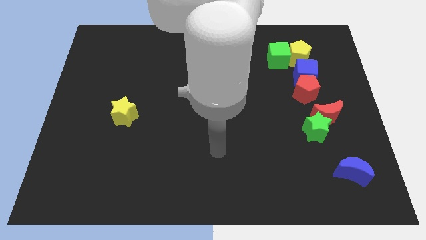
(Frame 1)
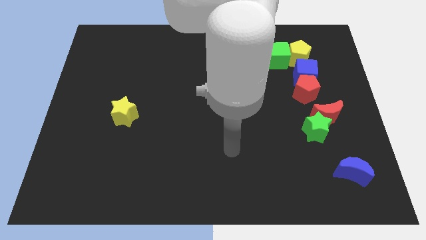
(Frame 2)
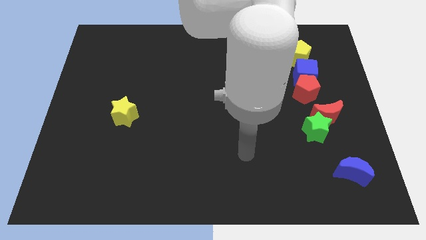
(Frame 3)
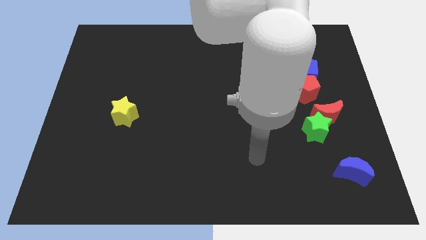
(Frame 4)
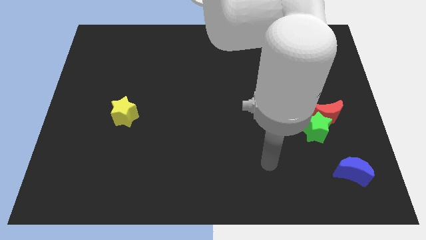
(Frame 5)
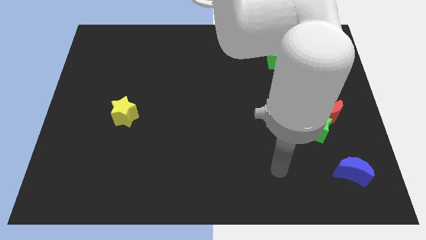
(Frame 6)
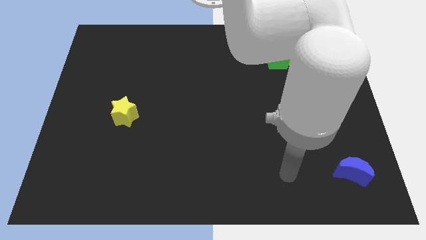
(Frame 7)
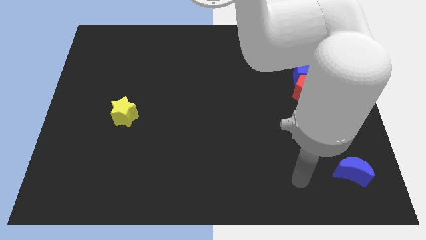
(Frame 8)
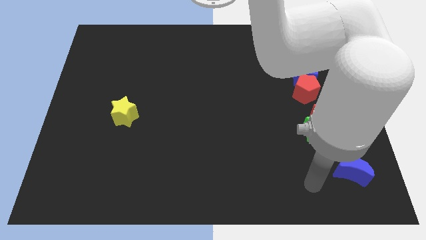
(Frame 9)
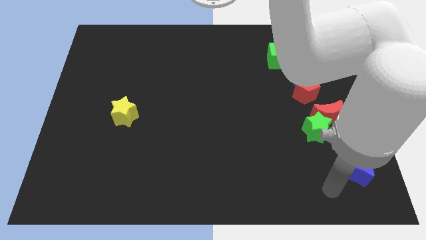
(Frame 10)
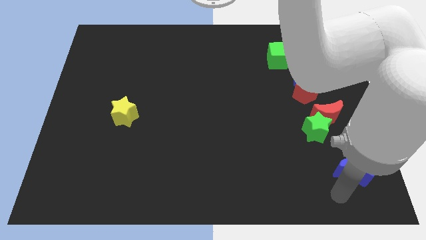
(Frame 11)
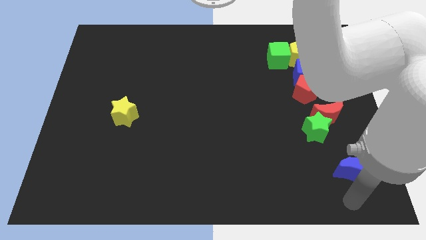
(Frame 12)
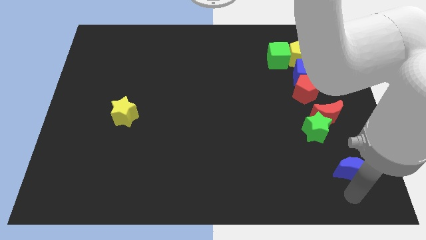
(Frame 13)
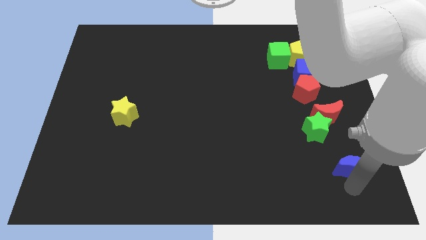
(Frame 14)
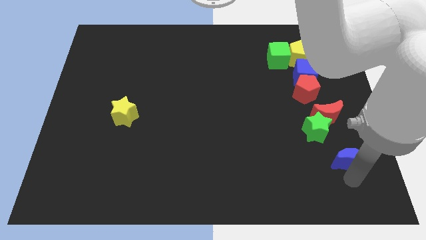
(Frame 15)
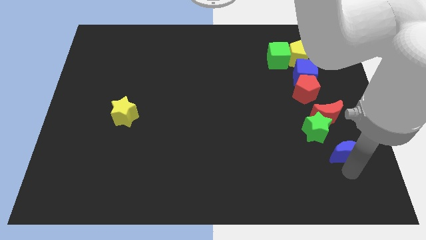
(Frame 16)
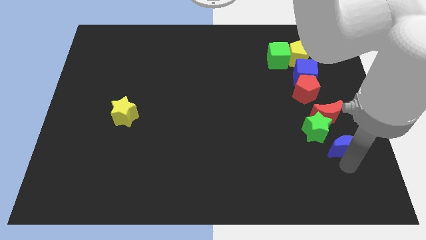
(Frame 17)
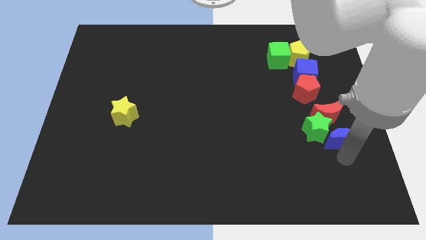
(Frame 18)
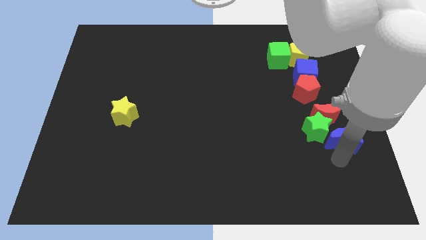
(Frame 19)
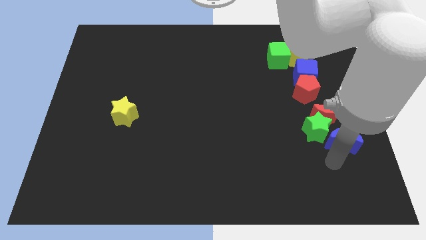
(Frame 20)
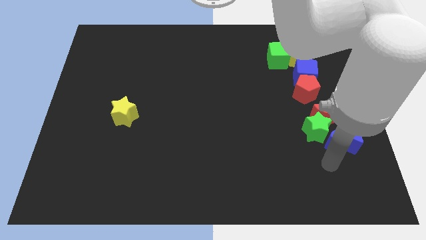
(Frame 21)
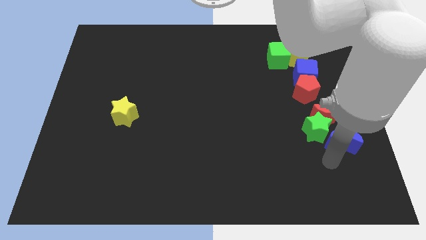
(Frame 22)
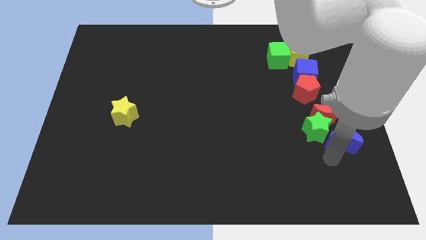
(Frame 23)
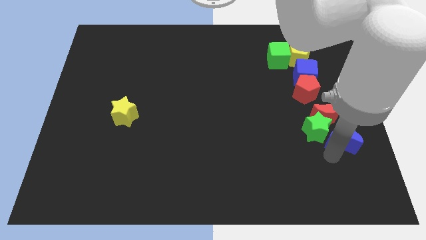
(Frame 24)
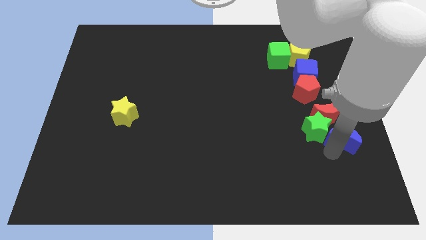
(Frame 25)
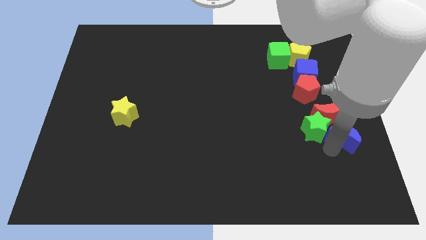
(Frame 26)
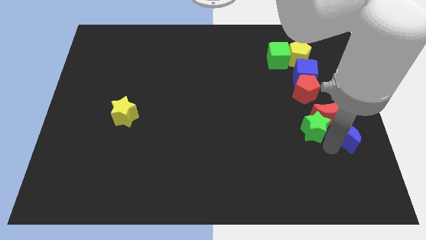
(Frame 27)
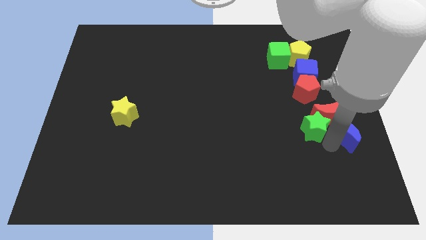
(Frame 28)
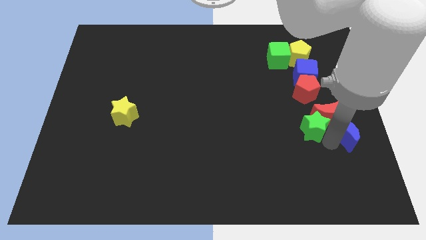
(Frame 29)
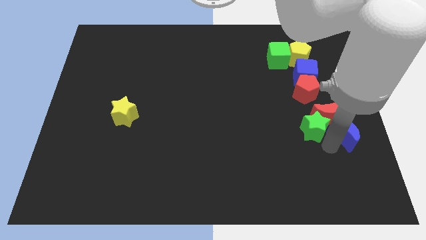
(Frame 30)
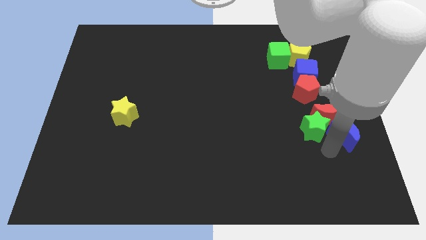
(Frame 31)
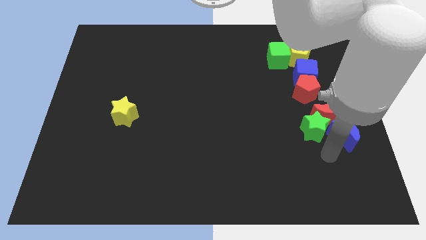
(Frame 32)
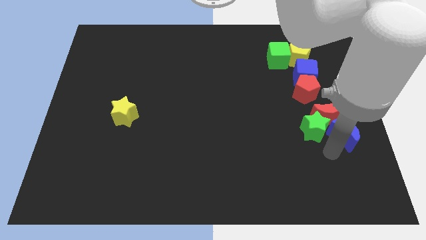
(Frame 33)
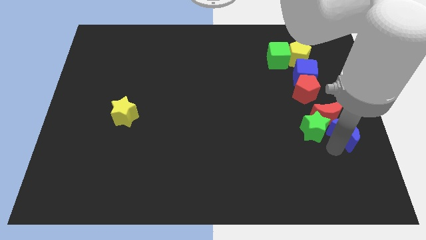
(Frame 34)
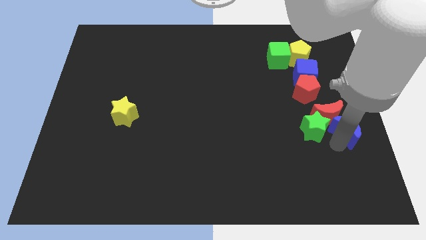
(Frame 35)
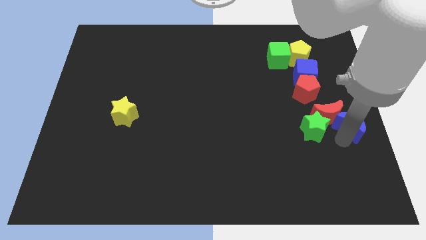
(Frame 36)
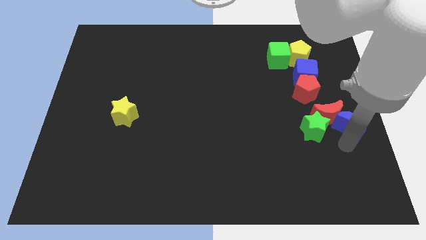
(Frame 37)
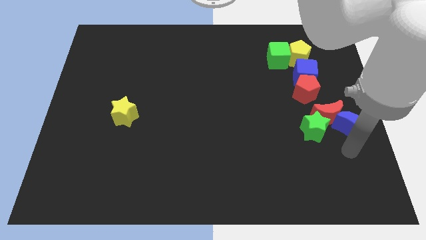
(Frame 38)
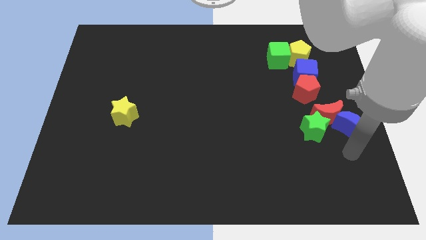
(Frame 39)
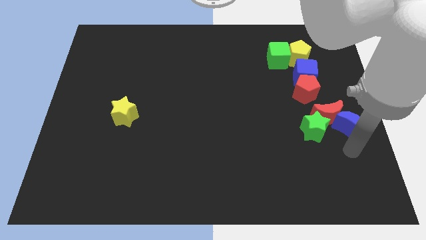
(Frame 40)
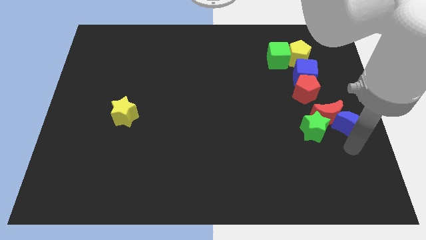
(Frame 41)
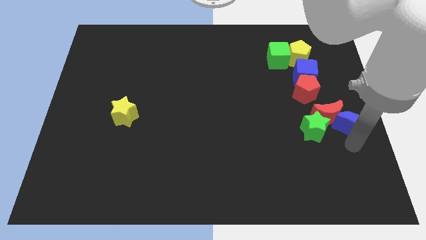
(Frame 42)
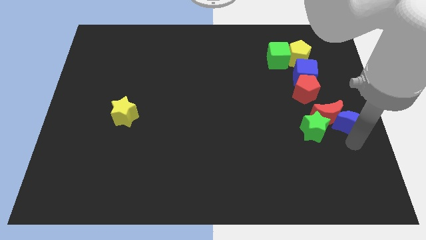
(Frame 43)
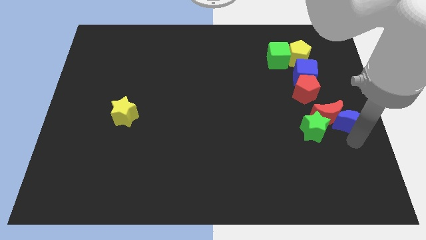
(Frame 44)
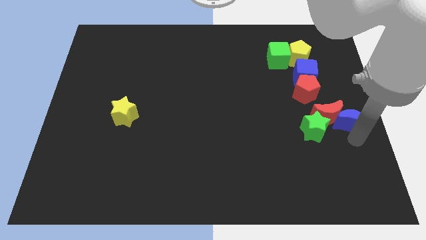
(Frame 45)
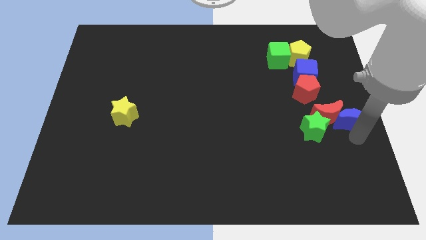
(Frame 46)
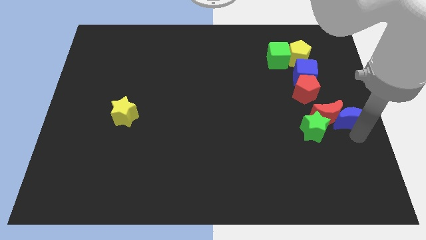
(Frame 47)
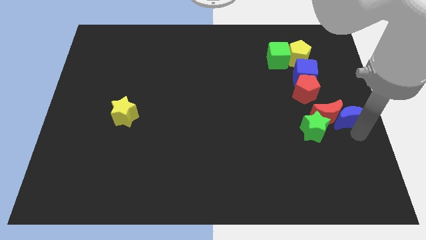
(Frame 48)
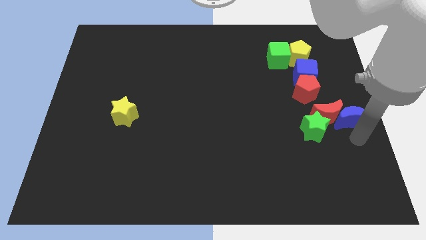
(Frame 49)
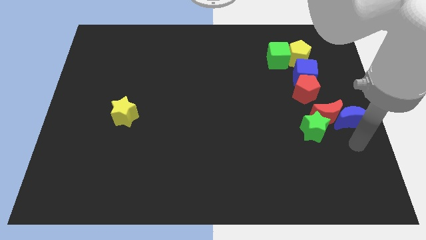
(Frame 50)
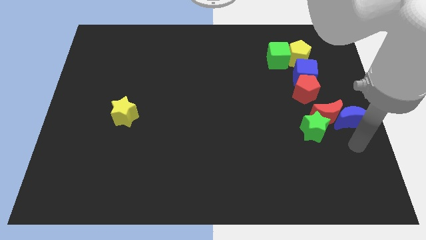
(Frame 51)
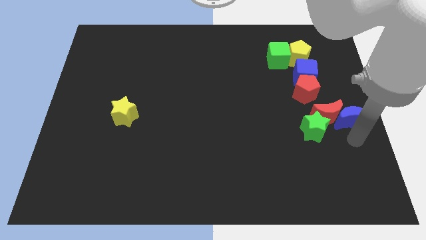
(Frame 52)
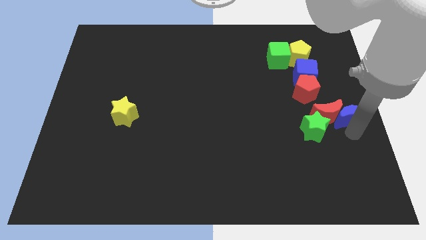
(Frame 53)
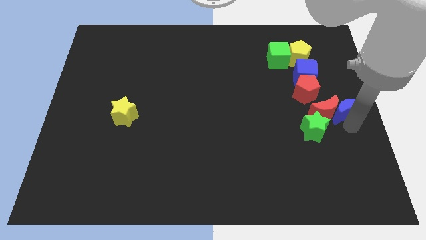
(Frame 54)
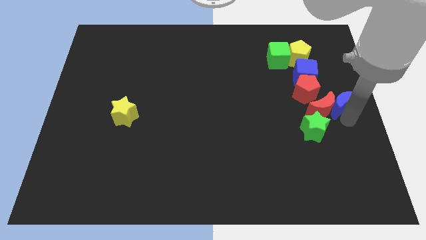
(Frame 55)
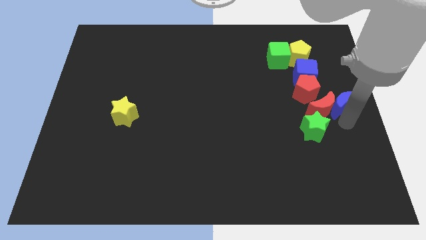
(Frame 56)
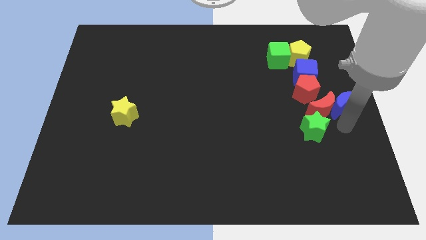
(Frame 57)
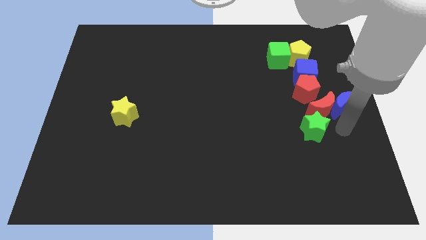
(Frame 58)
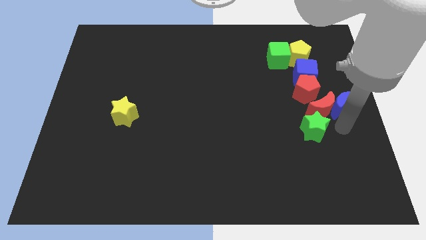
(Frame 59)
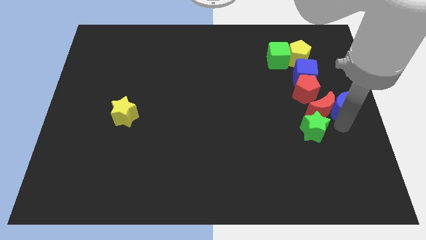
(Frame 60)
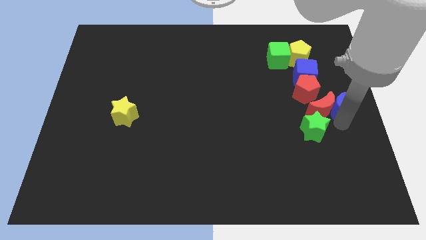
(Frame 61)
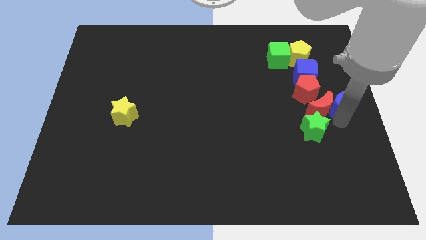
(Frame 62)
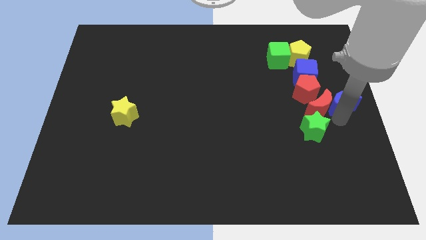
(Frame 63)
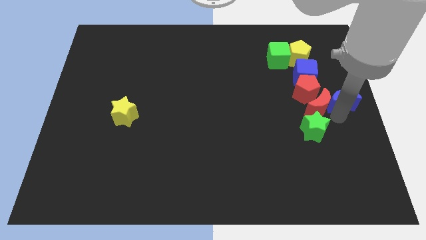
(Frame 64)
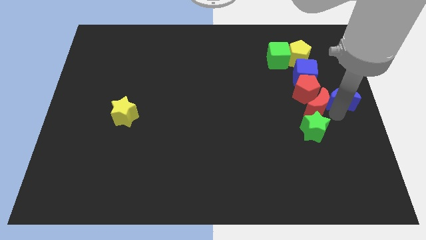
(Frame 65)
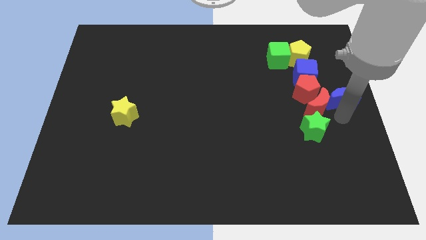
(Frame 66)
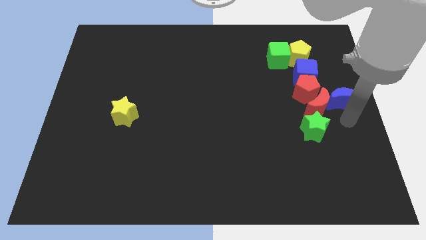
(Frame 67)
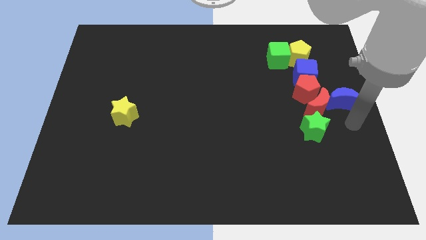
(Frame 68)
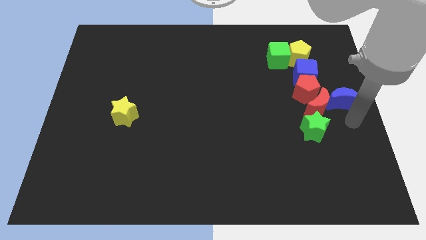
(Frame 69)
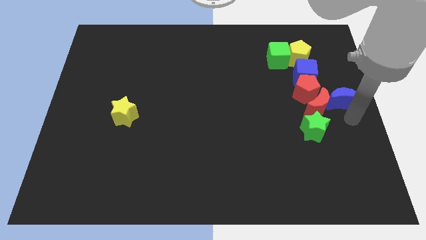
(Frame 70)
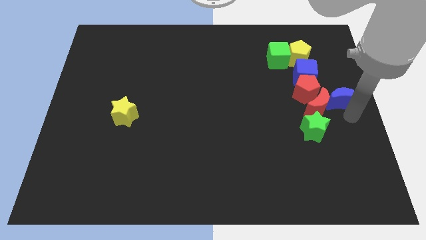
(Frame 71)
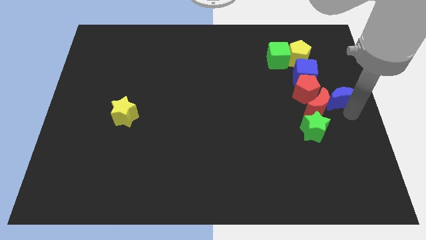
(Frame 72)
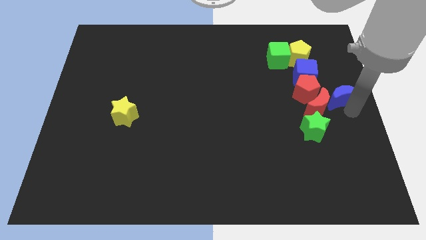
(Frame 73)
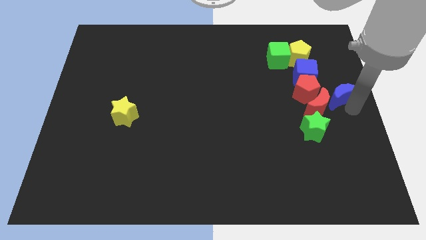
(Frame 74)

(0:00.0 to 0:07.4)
slide the blue moon up

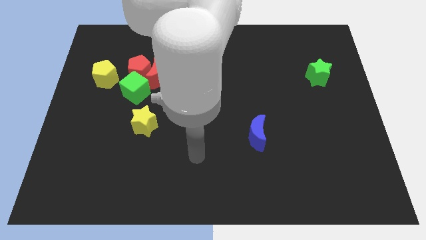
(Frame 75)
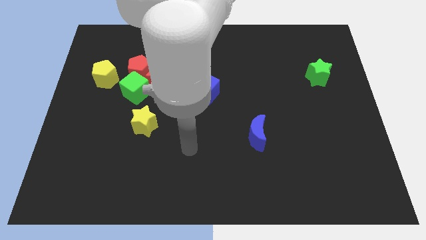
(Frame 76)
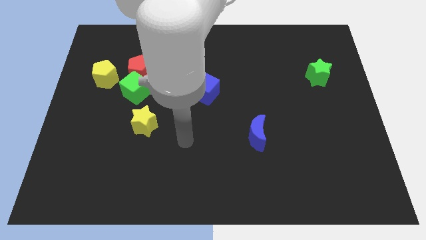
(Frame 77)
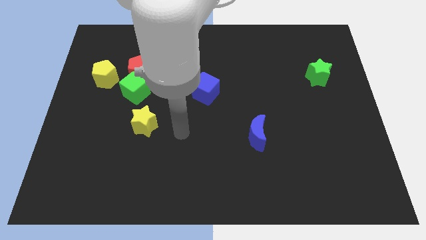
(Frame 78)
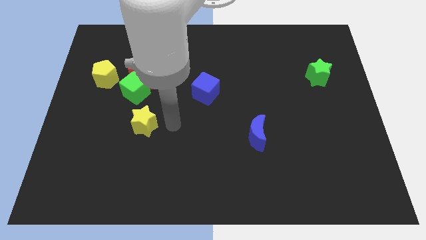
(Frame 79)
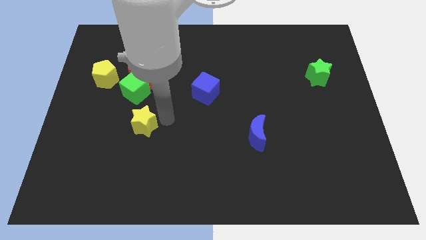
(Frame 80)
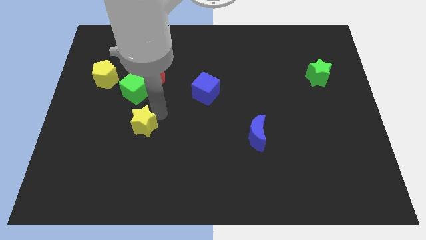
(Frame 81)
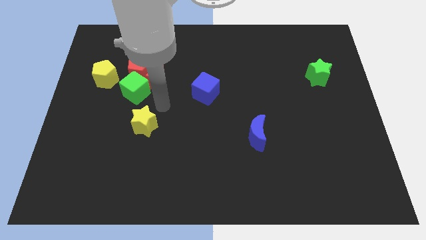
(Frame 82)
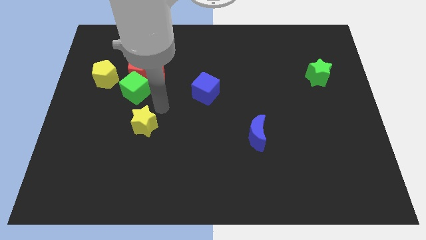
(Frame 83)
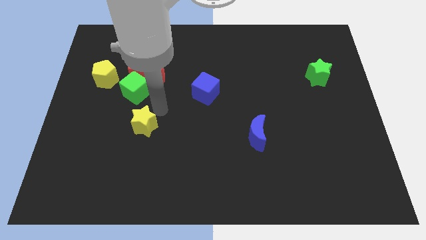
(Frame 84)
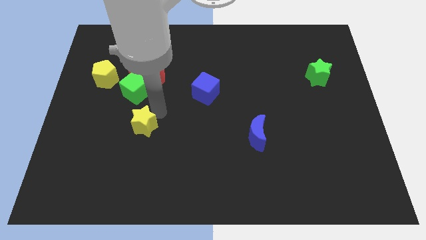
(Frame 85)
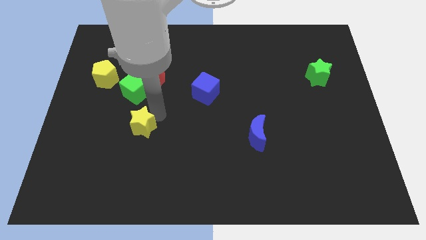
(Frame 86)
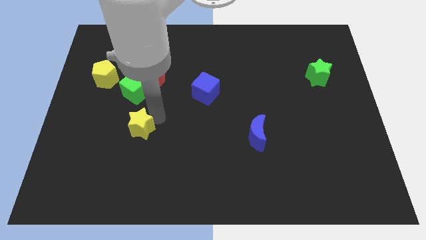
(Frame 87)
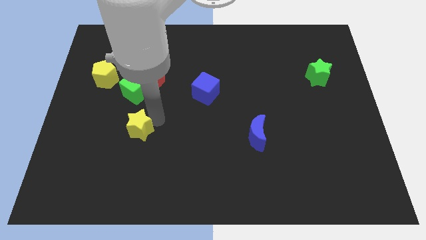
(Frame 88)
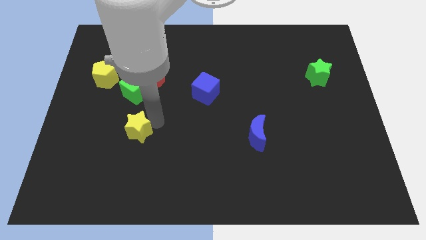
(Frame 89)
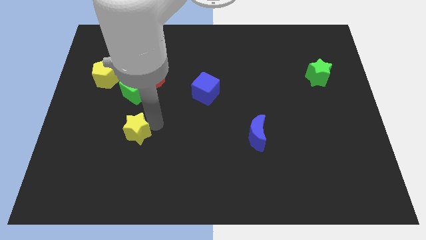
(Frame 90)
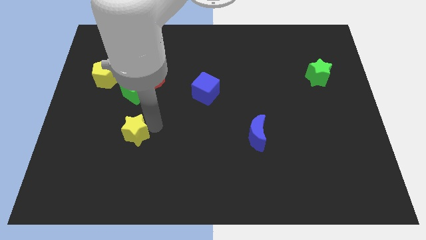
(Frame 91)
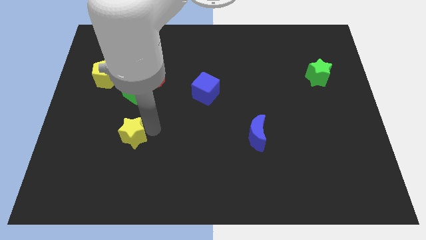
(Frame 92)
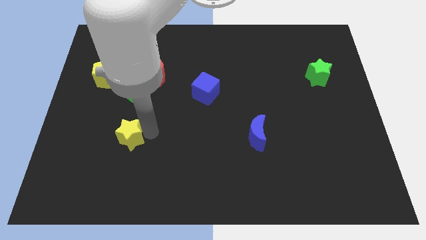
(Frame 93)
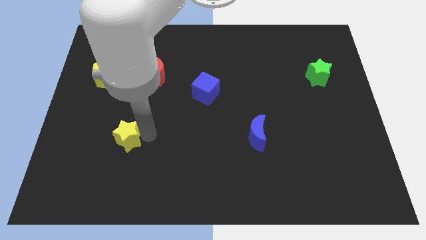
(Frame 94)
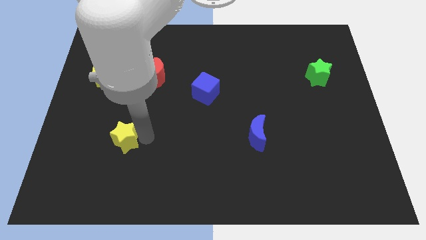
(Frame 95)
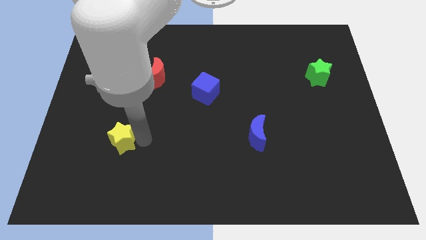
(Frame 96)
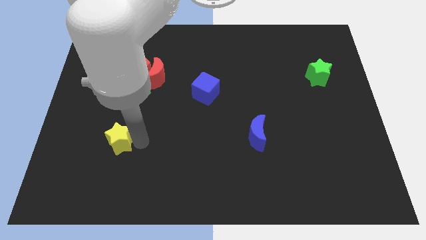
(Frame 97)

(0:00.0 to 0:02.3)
slide the yellow star downwards and then to the left somewhat
